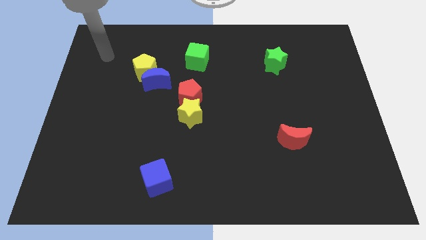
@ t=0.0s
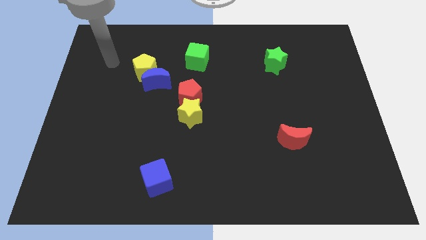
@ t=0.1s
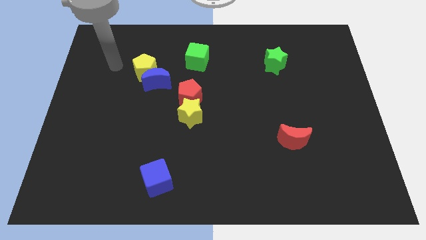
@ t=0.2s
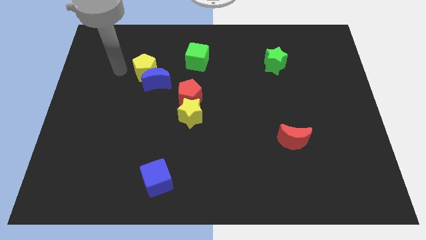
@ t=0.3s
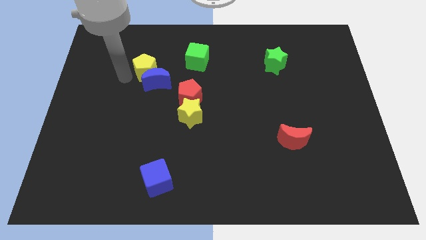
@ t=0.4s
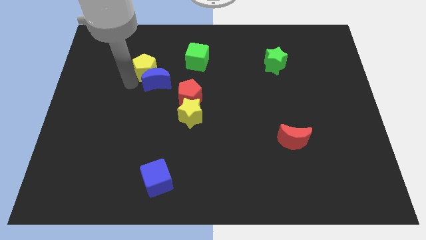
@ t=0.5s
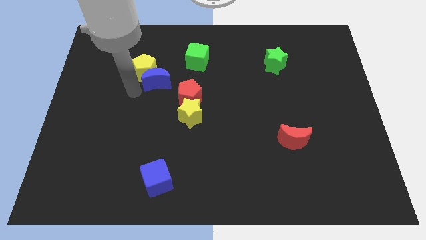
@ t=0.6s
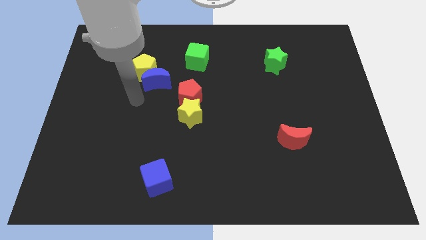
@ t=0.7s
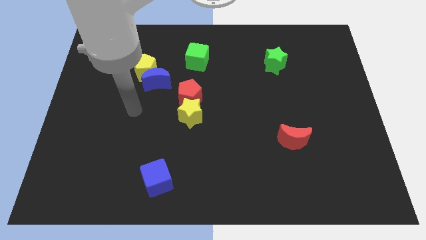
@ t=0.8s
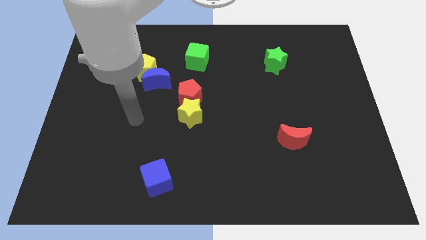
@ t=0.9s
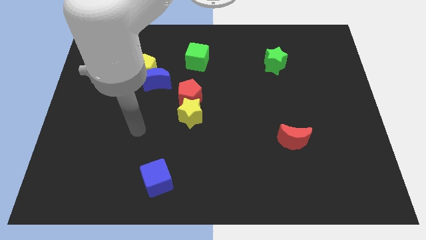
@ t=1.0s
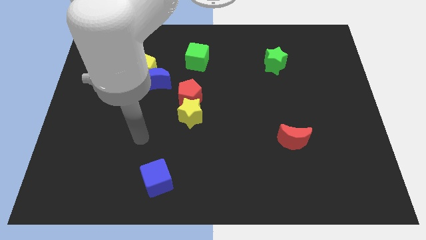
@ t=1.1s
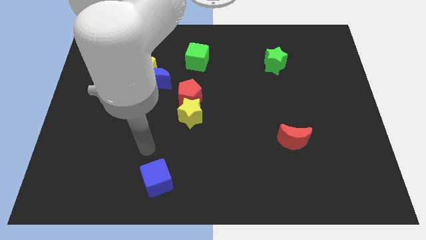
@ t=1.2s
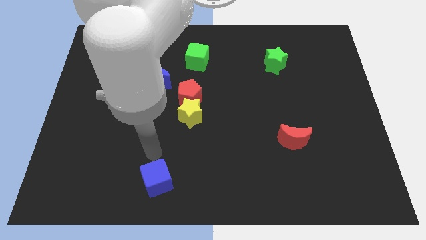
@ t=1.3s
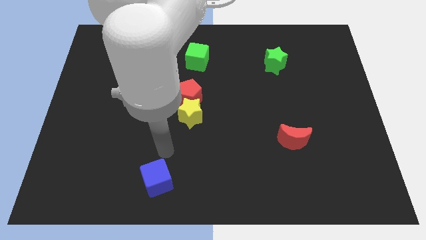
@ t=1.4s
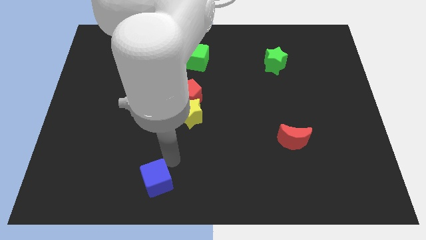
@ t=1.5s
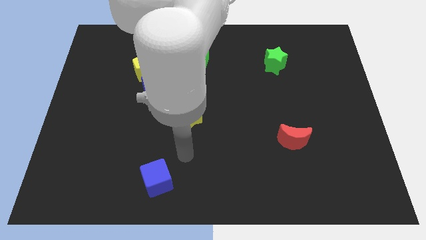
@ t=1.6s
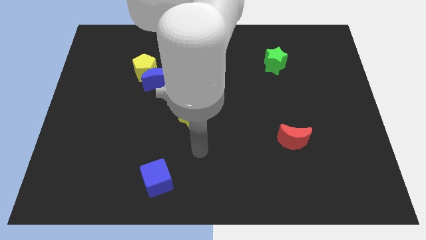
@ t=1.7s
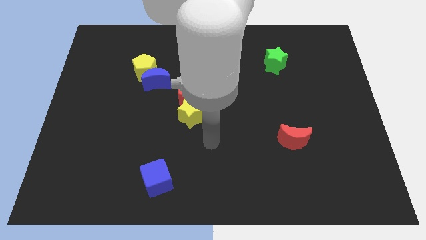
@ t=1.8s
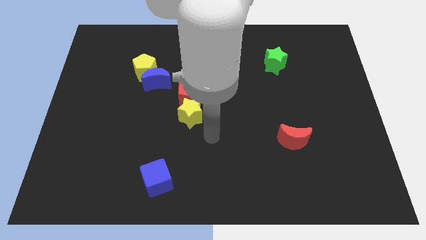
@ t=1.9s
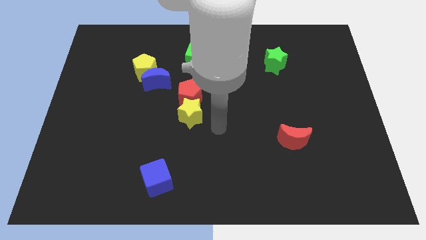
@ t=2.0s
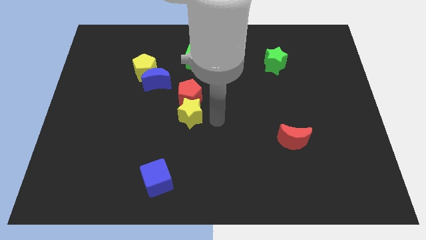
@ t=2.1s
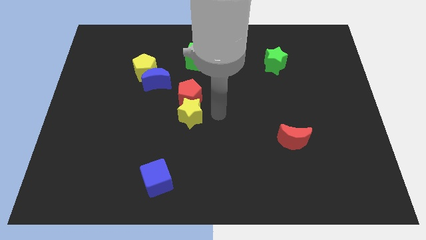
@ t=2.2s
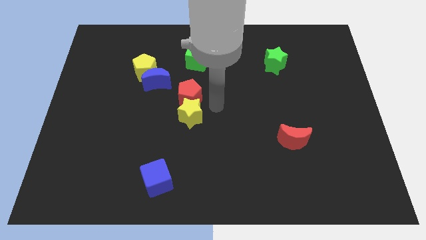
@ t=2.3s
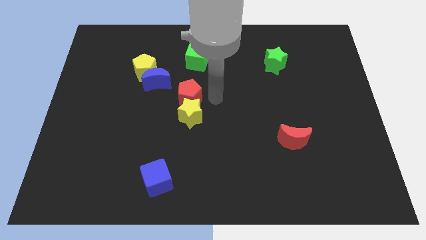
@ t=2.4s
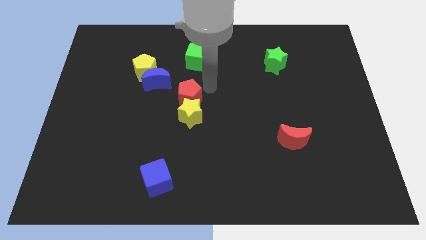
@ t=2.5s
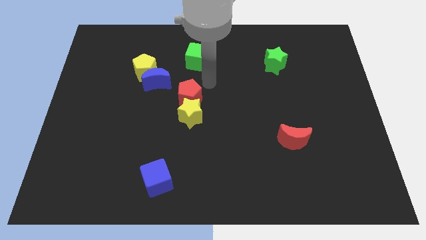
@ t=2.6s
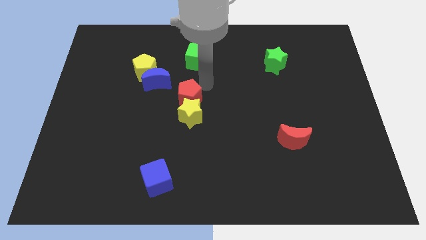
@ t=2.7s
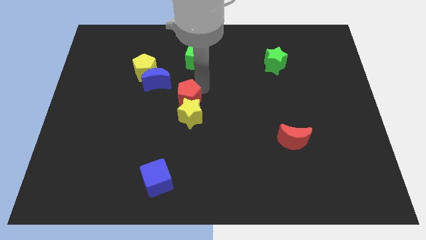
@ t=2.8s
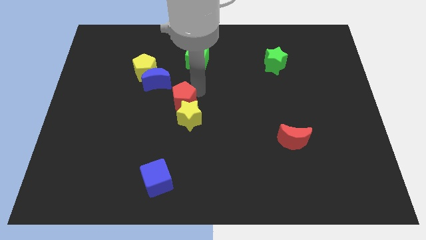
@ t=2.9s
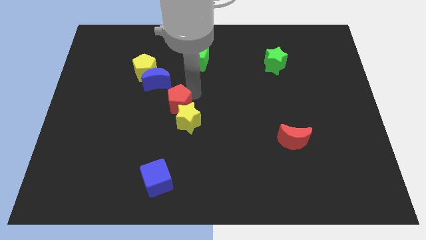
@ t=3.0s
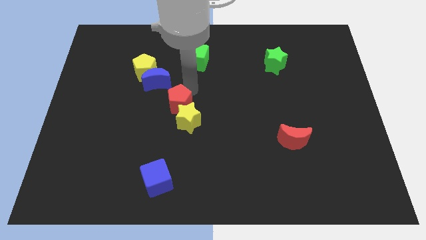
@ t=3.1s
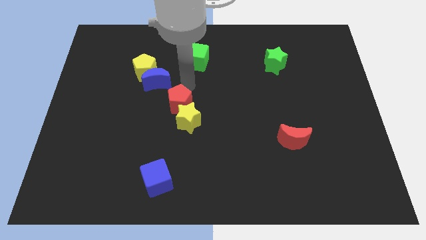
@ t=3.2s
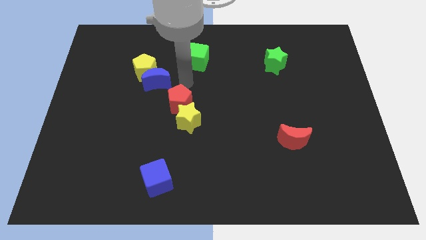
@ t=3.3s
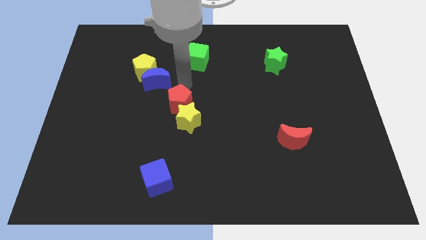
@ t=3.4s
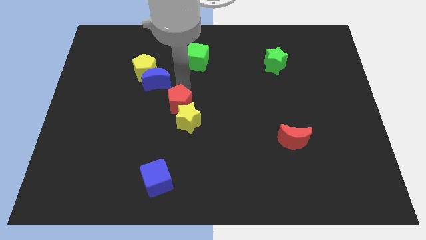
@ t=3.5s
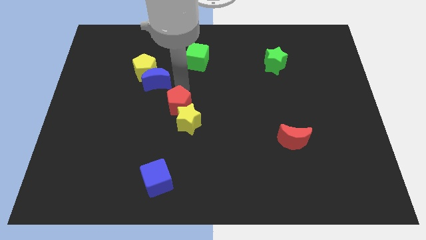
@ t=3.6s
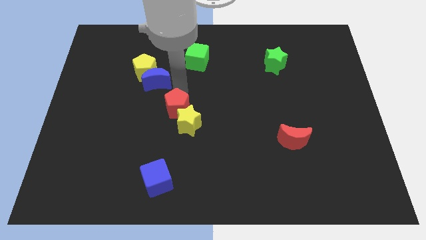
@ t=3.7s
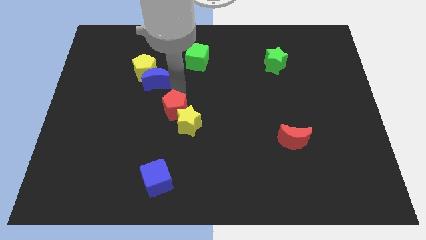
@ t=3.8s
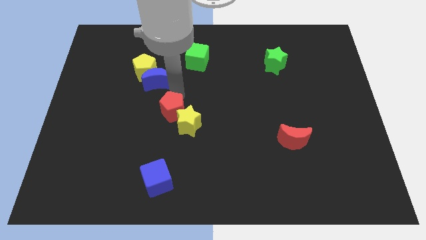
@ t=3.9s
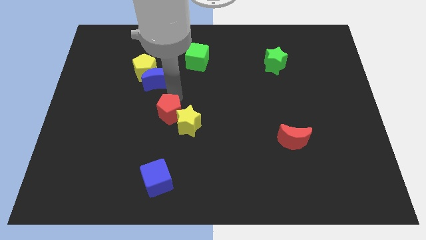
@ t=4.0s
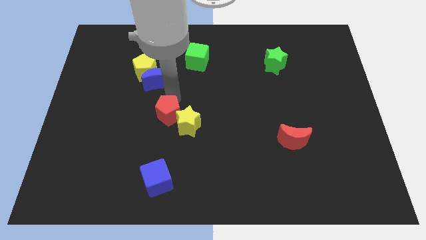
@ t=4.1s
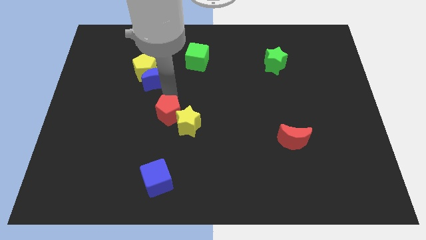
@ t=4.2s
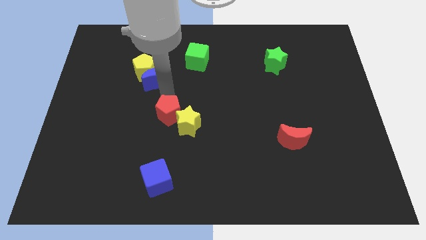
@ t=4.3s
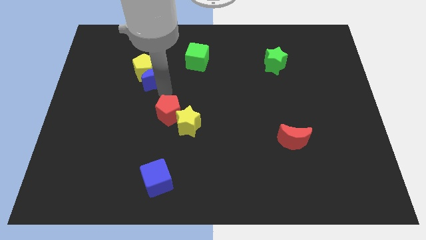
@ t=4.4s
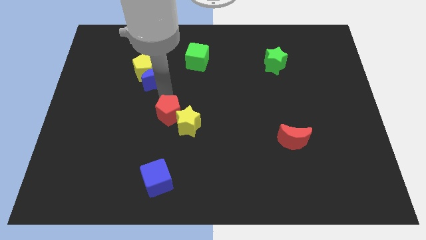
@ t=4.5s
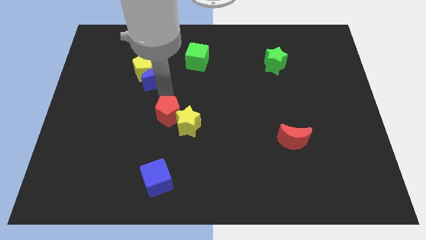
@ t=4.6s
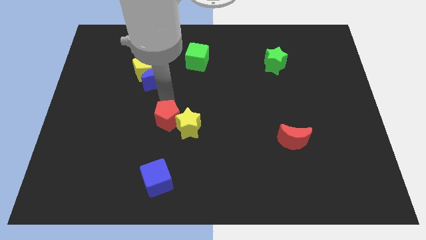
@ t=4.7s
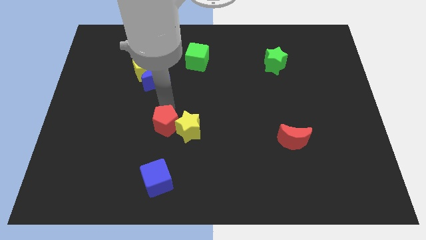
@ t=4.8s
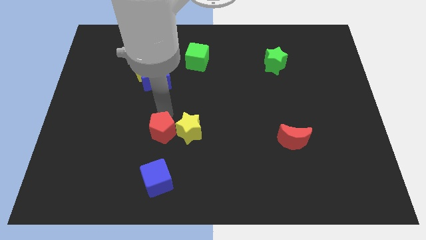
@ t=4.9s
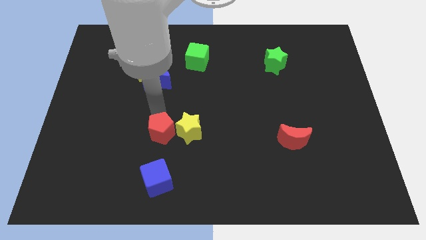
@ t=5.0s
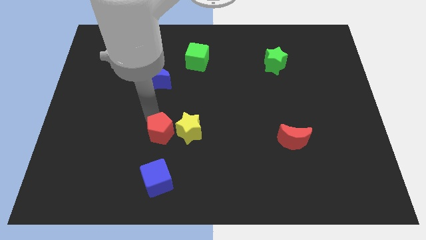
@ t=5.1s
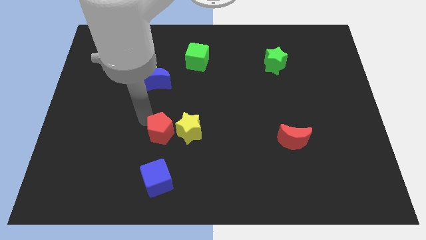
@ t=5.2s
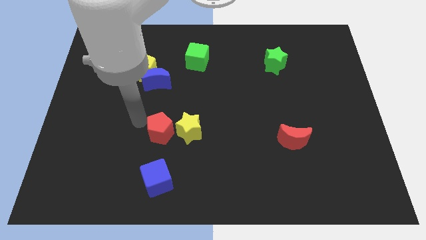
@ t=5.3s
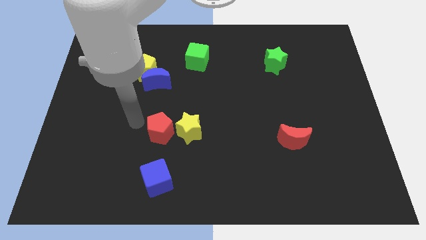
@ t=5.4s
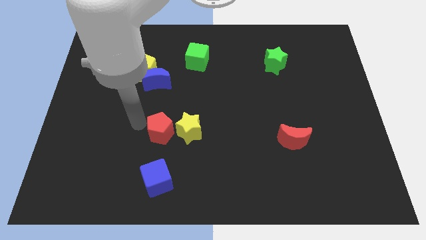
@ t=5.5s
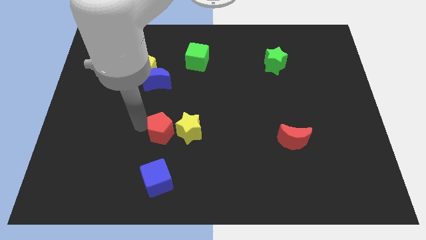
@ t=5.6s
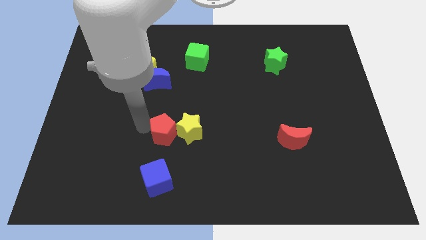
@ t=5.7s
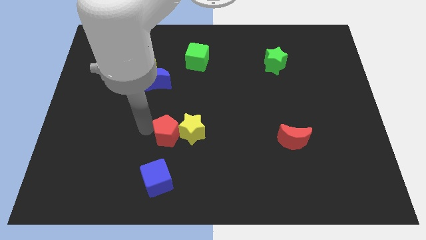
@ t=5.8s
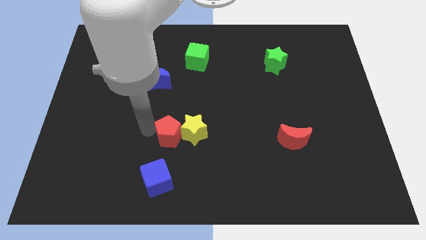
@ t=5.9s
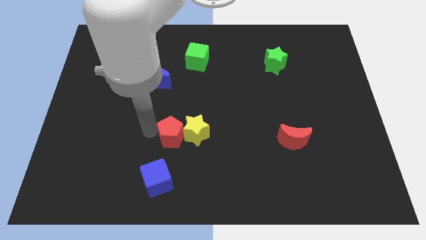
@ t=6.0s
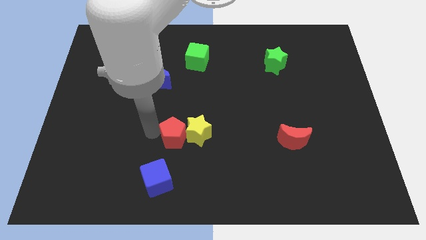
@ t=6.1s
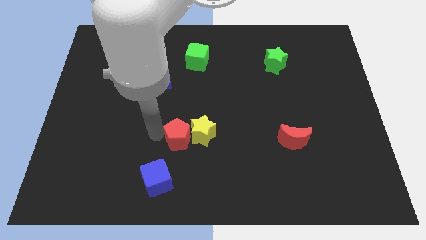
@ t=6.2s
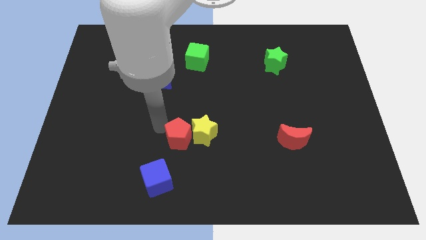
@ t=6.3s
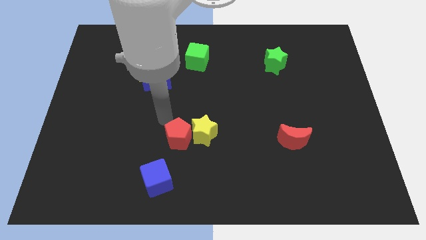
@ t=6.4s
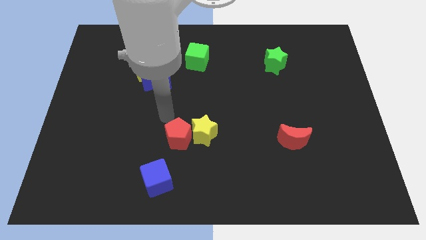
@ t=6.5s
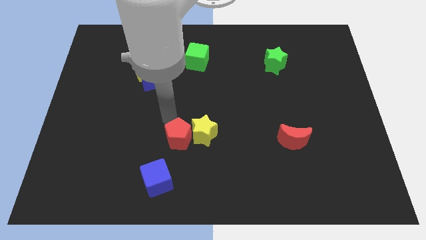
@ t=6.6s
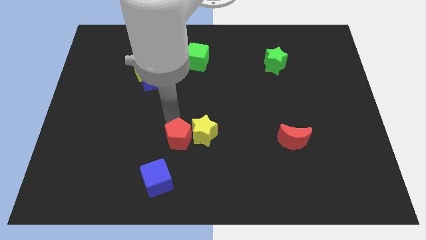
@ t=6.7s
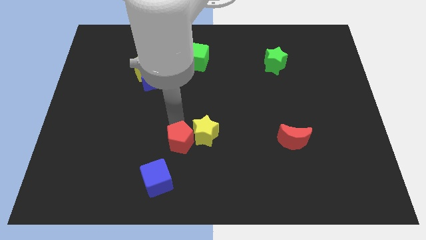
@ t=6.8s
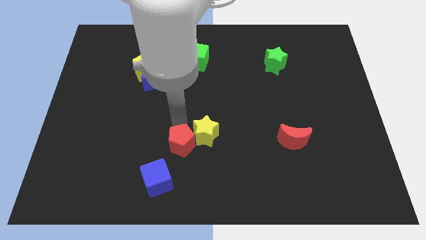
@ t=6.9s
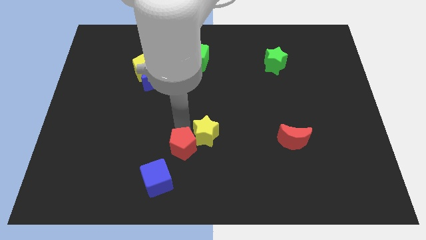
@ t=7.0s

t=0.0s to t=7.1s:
put the red pentagon to the bottom of the yellow star
